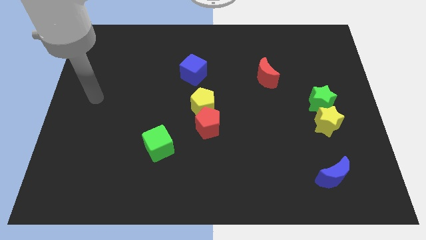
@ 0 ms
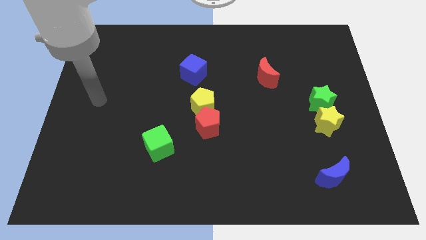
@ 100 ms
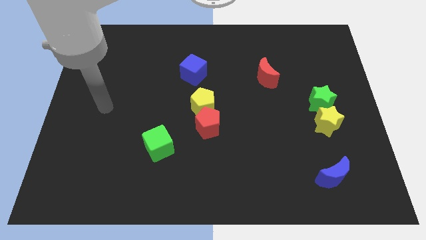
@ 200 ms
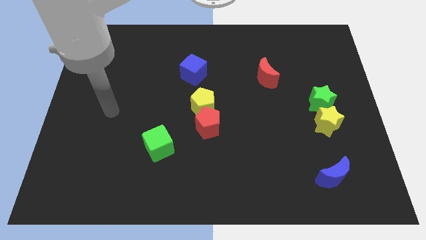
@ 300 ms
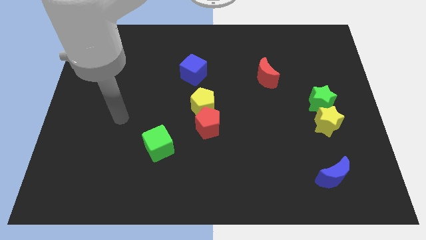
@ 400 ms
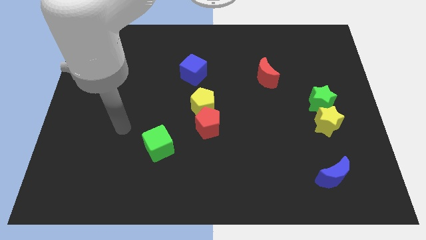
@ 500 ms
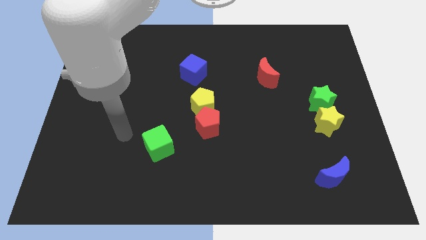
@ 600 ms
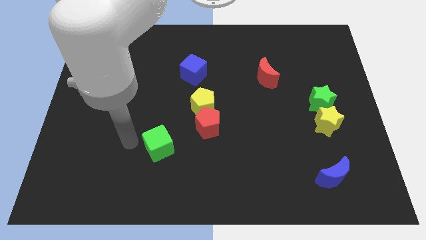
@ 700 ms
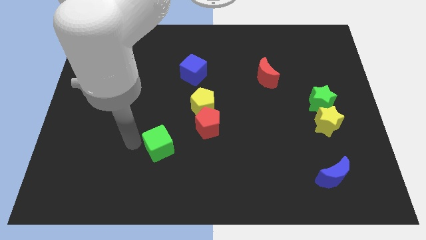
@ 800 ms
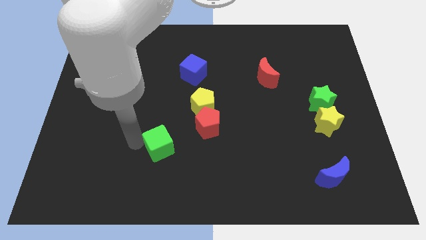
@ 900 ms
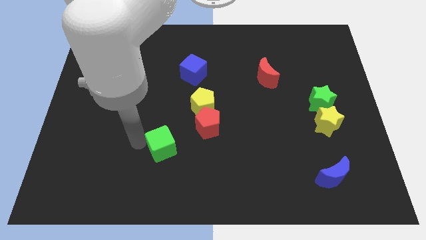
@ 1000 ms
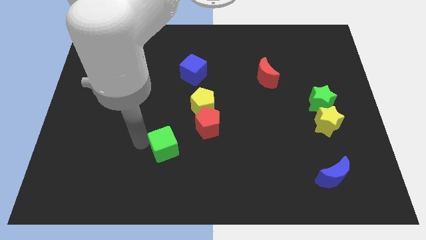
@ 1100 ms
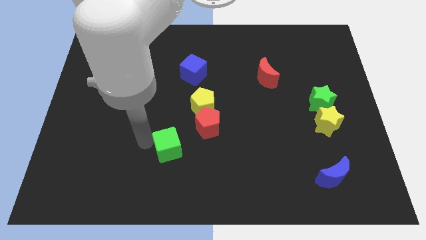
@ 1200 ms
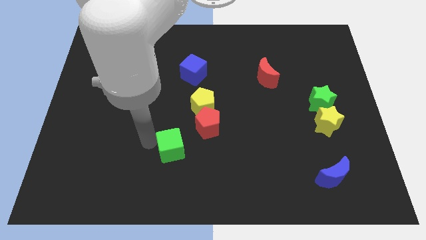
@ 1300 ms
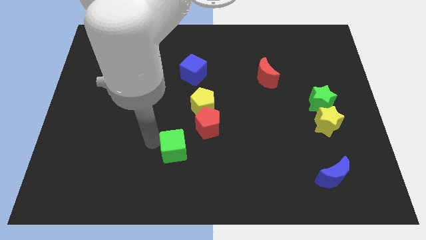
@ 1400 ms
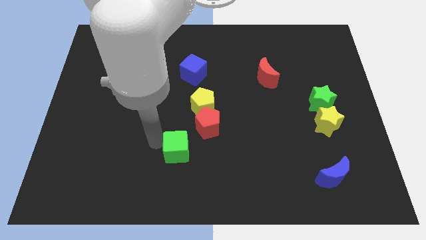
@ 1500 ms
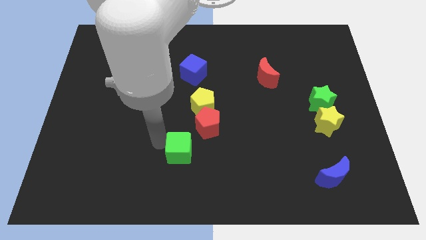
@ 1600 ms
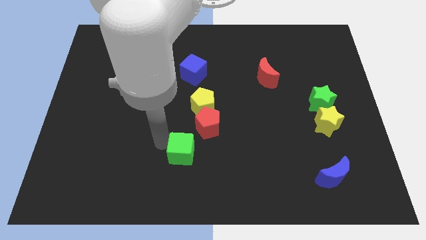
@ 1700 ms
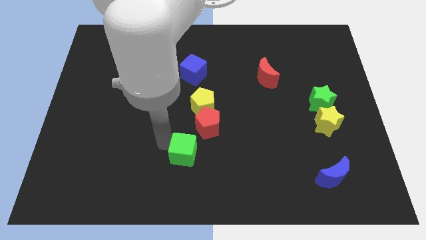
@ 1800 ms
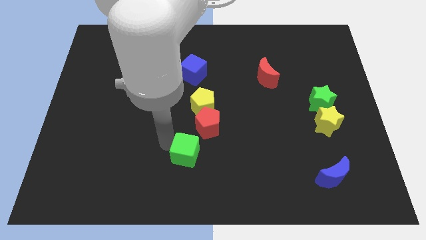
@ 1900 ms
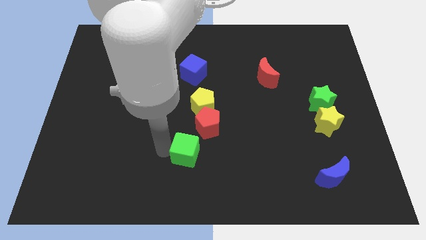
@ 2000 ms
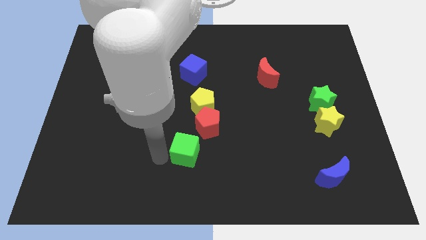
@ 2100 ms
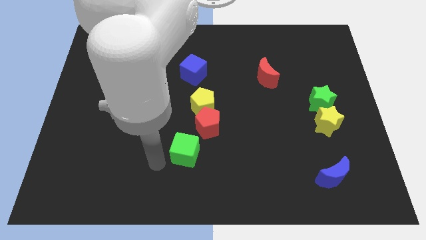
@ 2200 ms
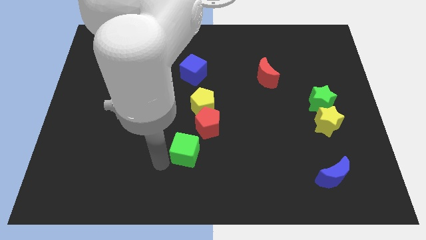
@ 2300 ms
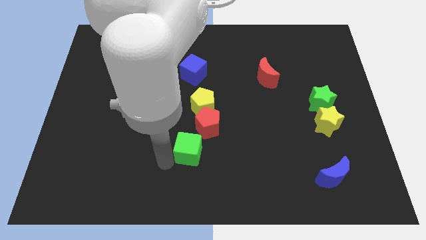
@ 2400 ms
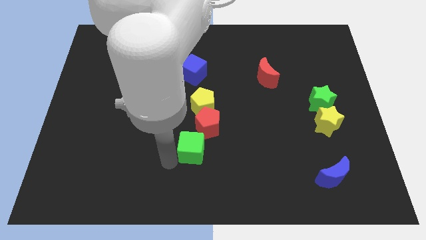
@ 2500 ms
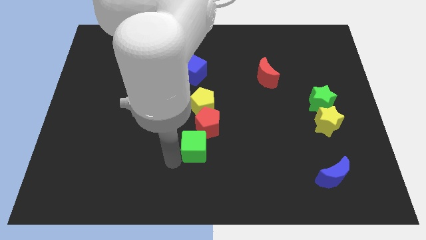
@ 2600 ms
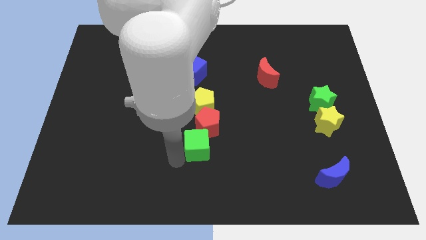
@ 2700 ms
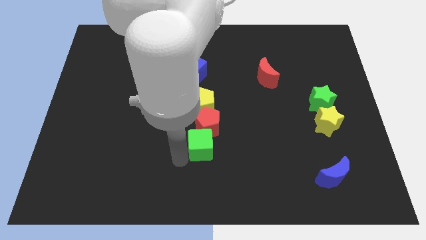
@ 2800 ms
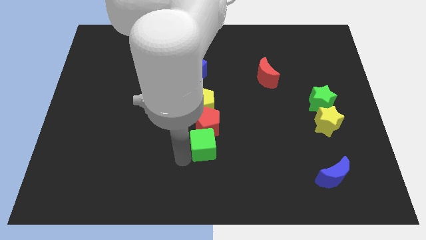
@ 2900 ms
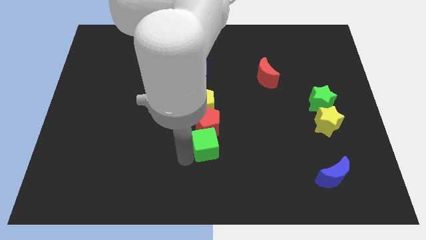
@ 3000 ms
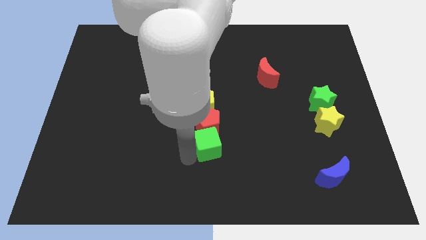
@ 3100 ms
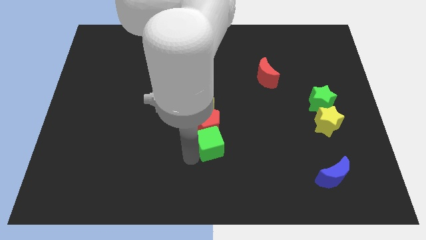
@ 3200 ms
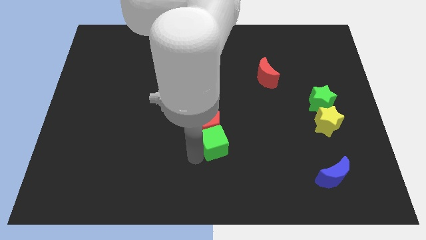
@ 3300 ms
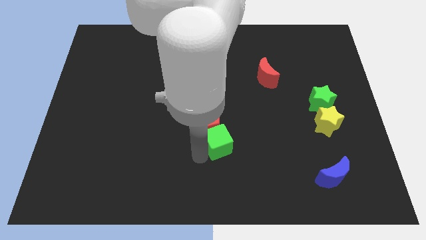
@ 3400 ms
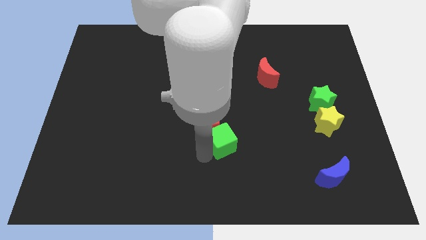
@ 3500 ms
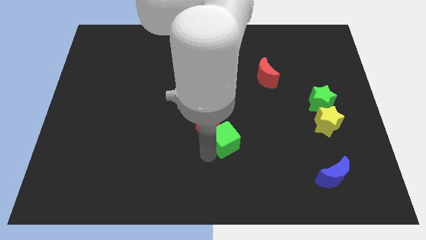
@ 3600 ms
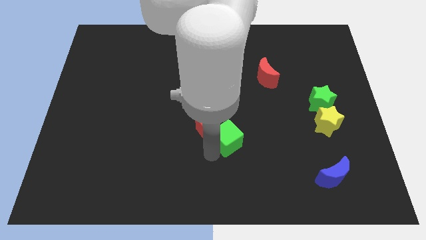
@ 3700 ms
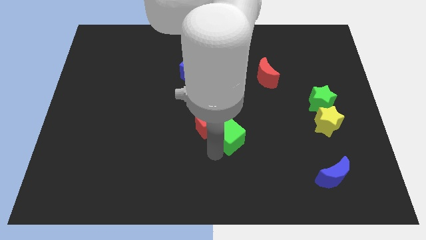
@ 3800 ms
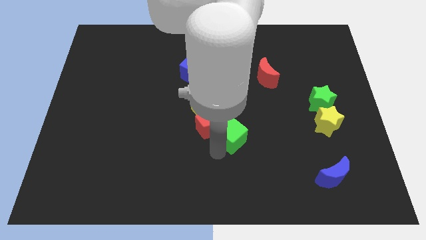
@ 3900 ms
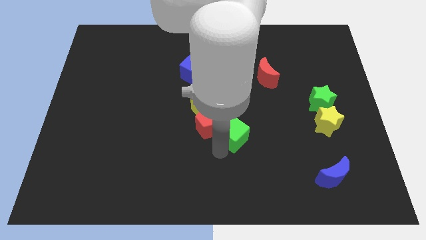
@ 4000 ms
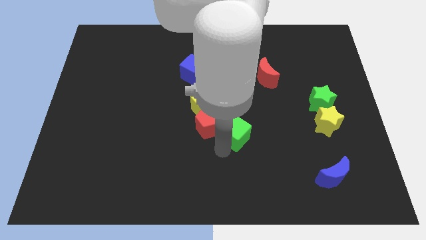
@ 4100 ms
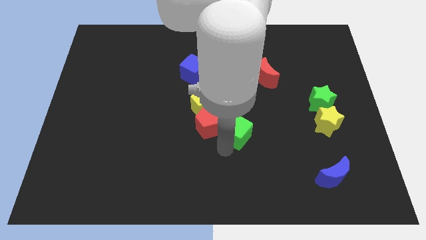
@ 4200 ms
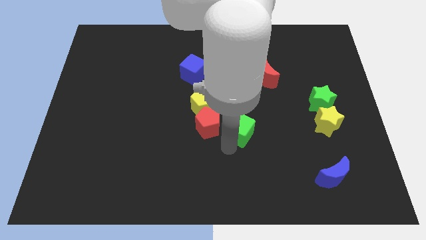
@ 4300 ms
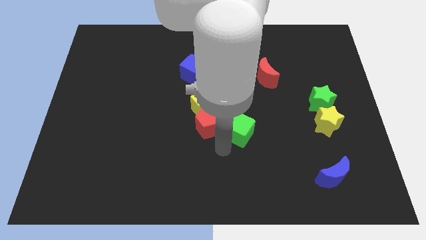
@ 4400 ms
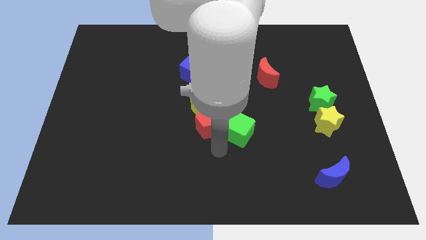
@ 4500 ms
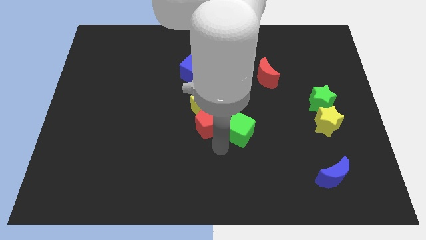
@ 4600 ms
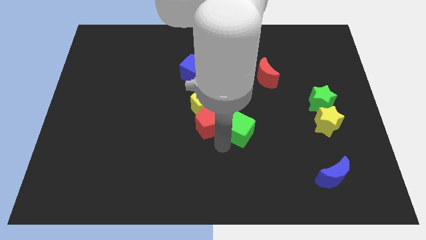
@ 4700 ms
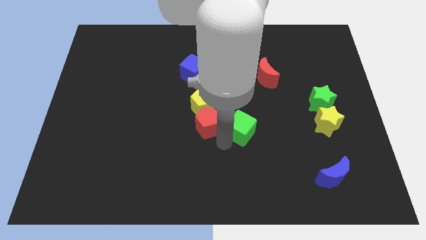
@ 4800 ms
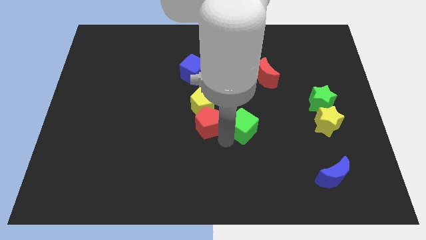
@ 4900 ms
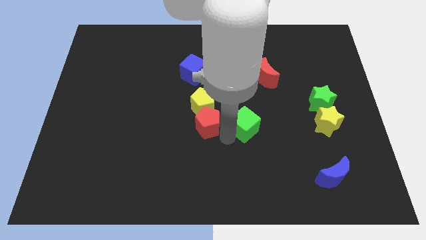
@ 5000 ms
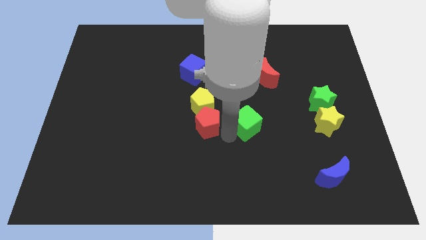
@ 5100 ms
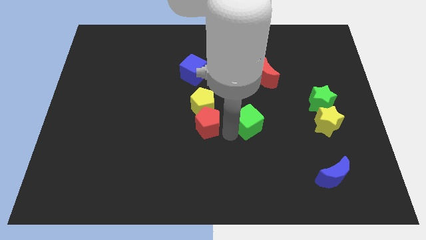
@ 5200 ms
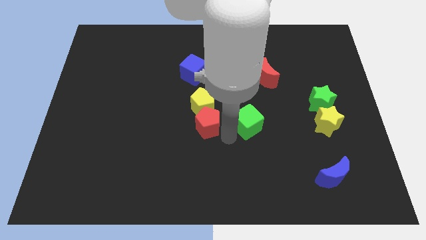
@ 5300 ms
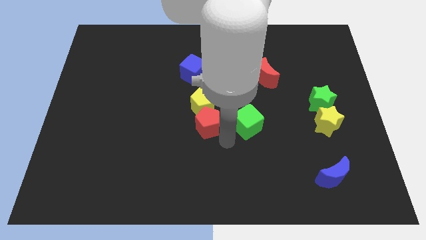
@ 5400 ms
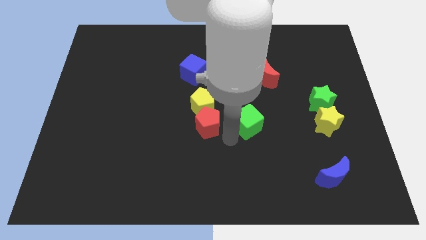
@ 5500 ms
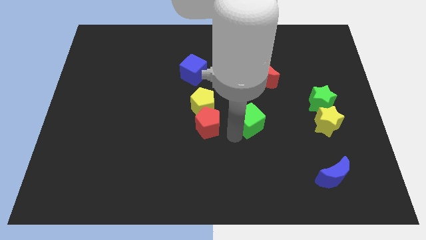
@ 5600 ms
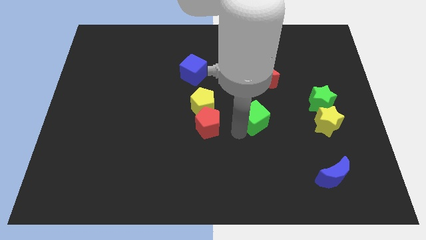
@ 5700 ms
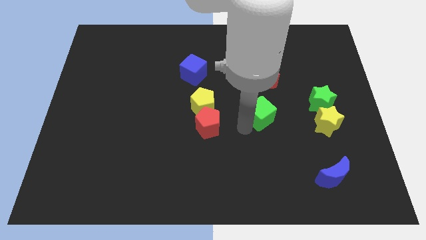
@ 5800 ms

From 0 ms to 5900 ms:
put the green cube just left of the green star
